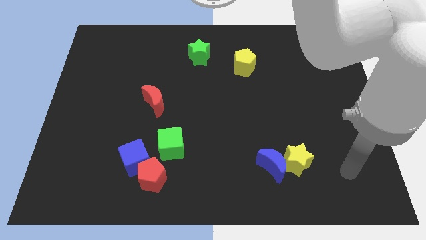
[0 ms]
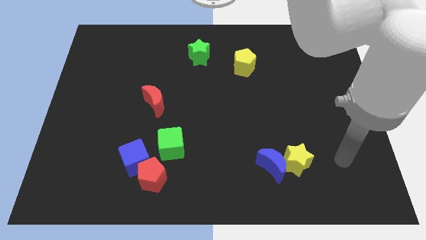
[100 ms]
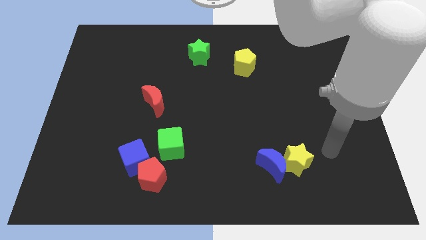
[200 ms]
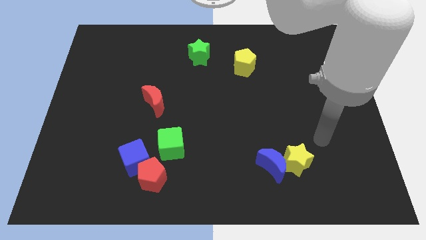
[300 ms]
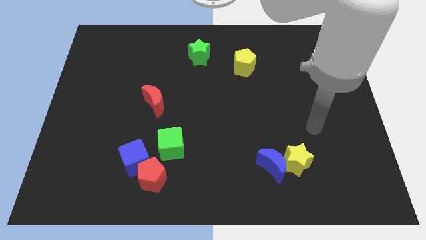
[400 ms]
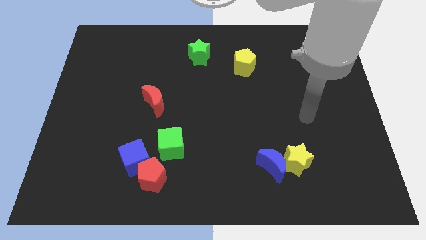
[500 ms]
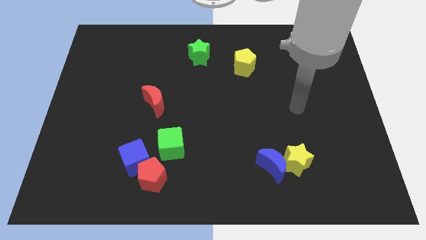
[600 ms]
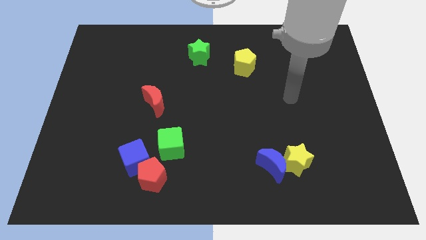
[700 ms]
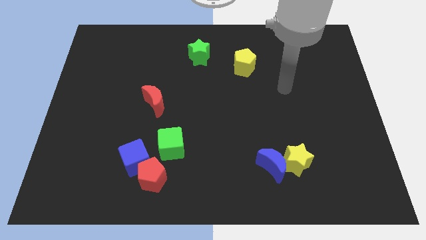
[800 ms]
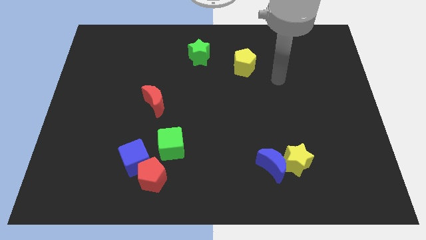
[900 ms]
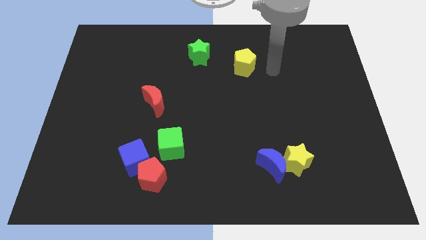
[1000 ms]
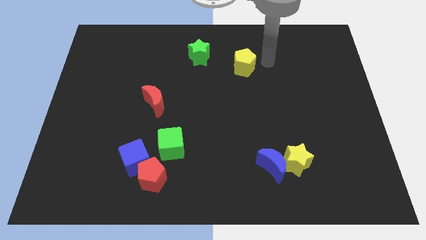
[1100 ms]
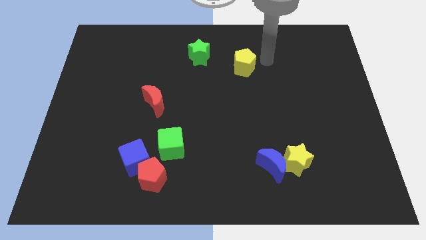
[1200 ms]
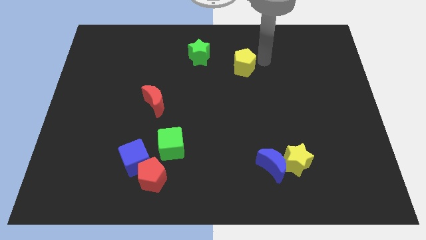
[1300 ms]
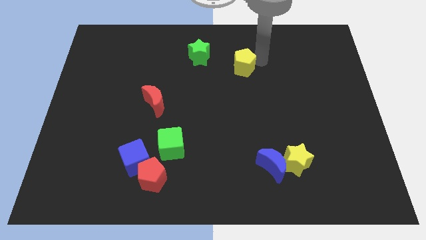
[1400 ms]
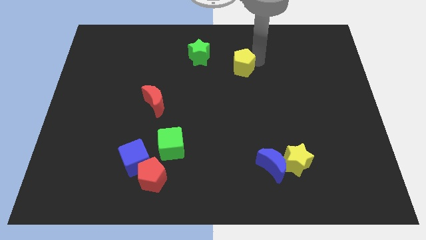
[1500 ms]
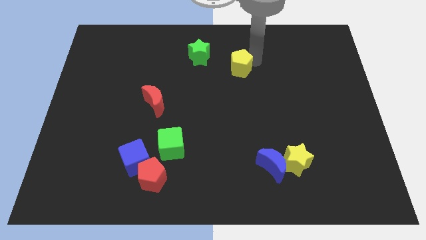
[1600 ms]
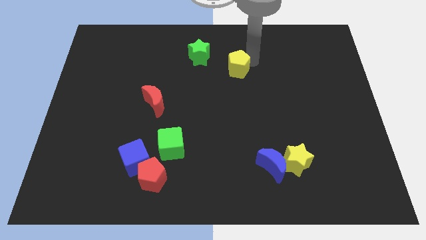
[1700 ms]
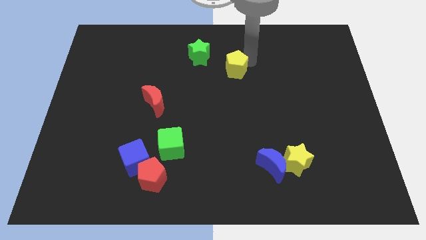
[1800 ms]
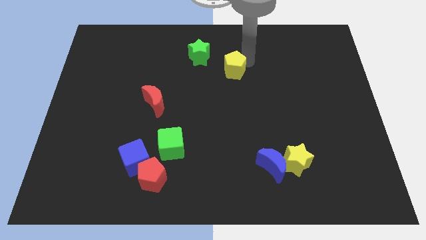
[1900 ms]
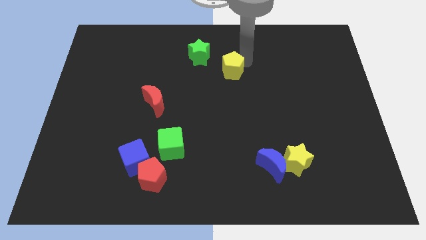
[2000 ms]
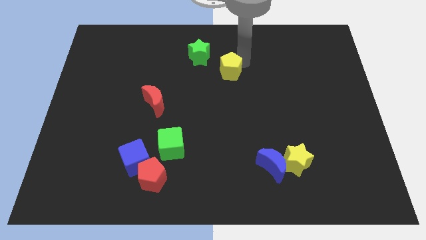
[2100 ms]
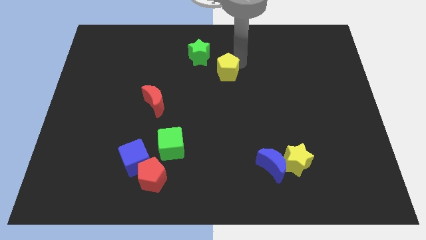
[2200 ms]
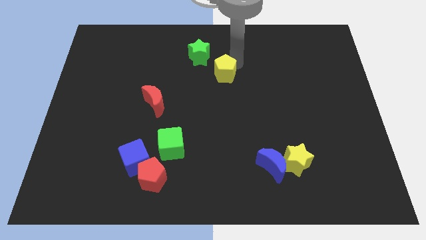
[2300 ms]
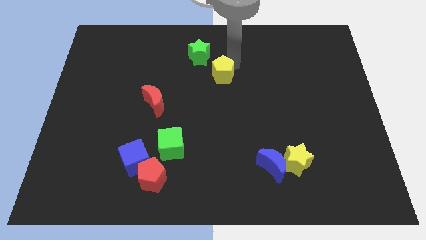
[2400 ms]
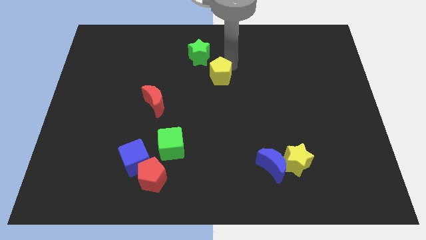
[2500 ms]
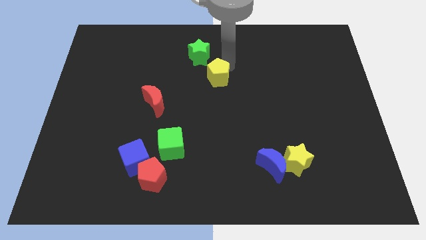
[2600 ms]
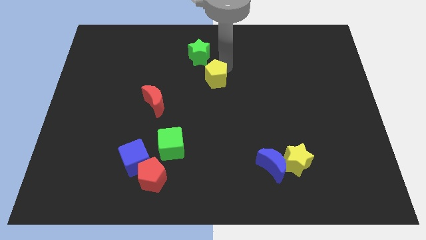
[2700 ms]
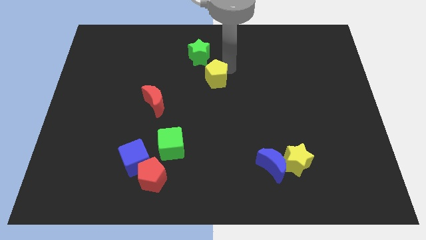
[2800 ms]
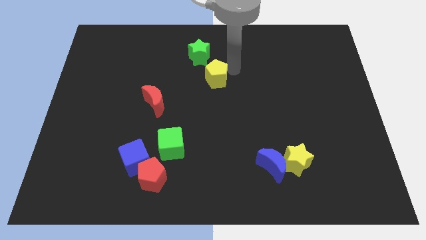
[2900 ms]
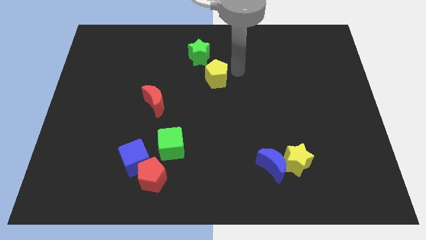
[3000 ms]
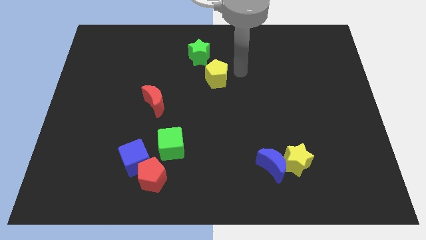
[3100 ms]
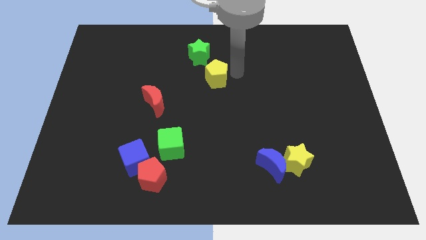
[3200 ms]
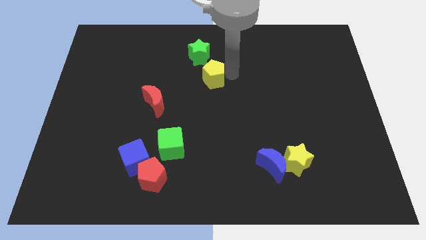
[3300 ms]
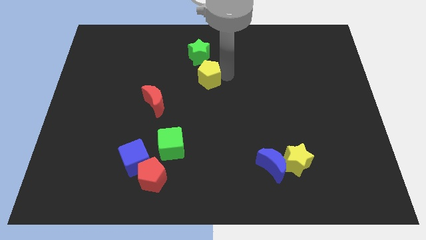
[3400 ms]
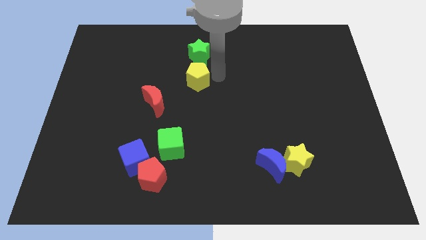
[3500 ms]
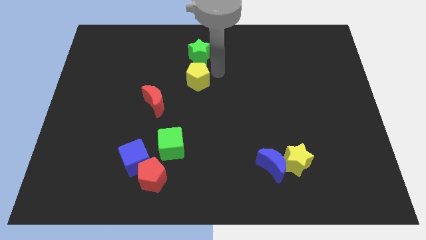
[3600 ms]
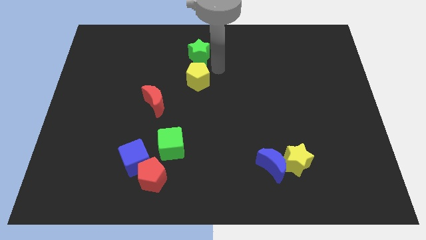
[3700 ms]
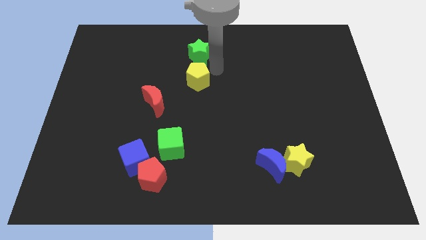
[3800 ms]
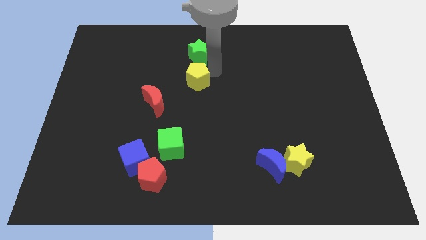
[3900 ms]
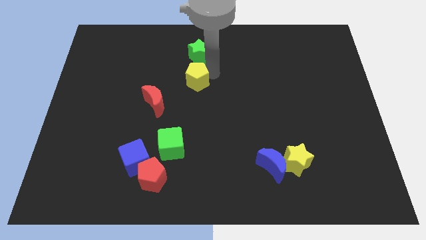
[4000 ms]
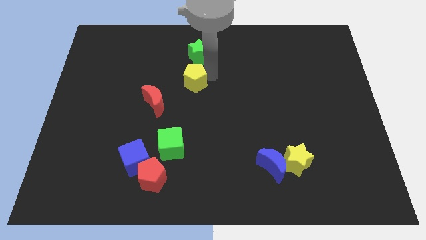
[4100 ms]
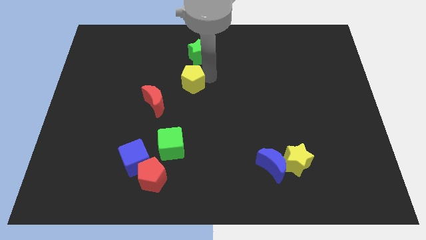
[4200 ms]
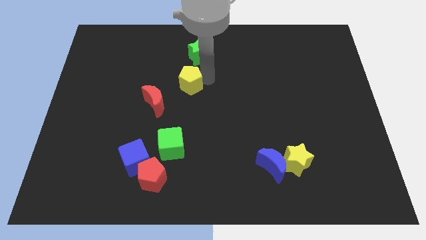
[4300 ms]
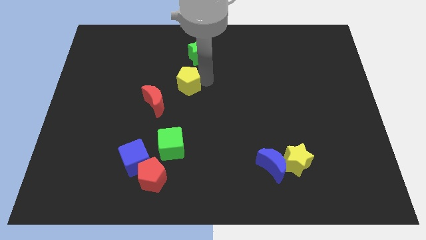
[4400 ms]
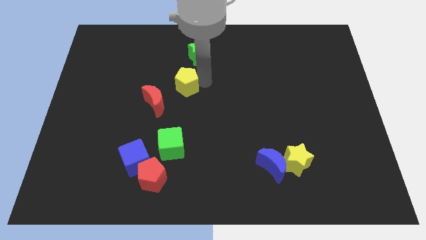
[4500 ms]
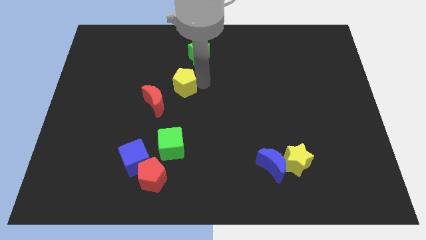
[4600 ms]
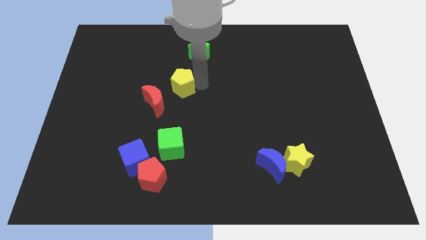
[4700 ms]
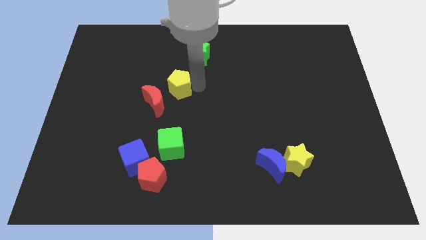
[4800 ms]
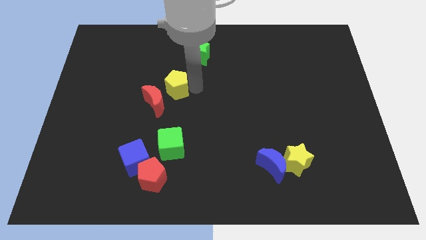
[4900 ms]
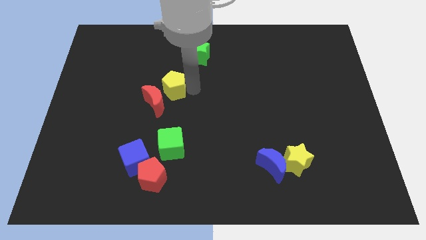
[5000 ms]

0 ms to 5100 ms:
put the yellow pentagon to the red moon

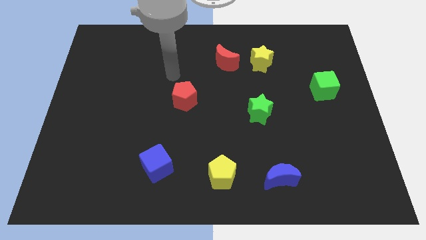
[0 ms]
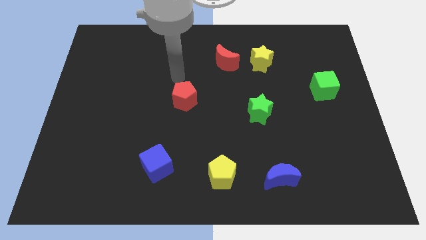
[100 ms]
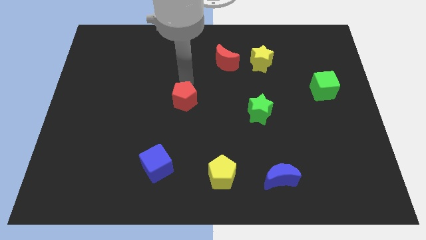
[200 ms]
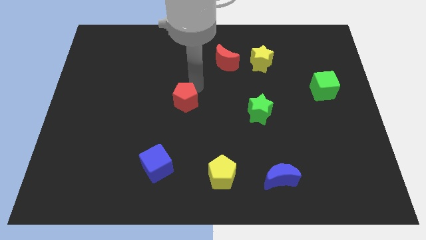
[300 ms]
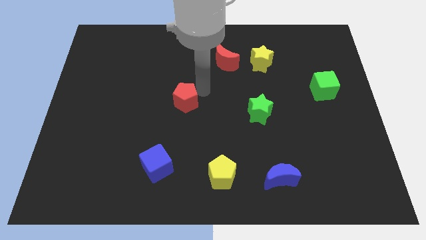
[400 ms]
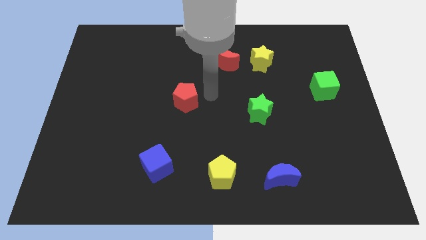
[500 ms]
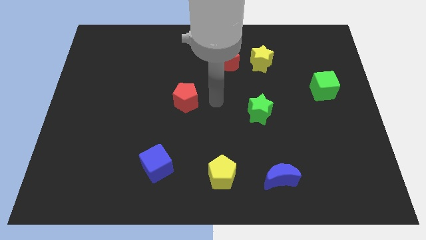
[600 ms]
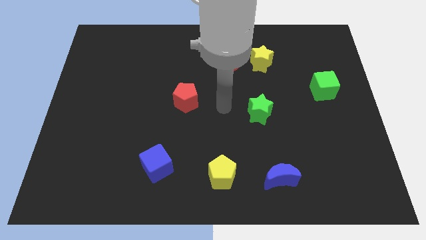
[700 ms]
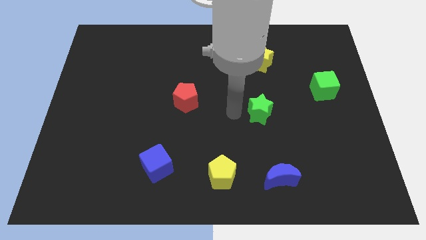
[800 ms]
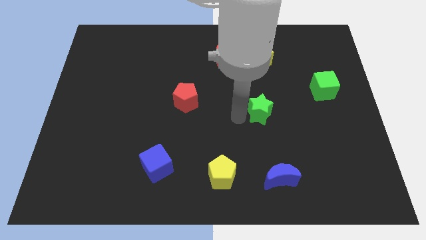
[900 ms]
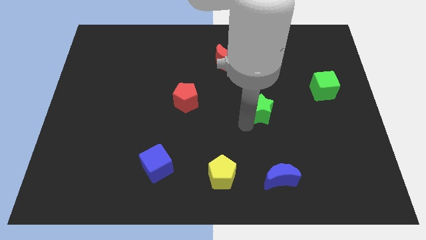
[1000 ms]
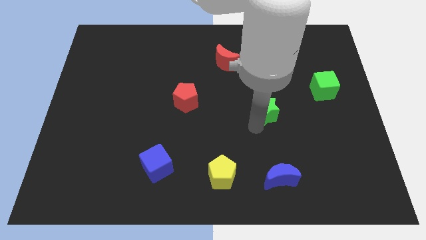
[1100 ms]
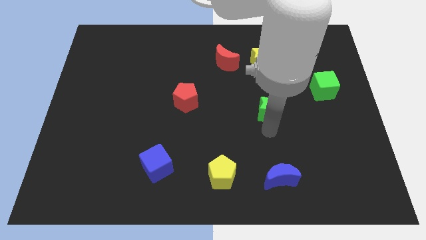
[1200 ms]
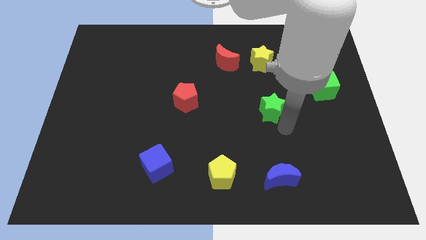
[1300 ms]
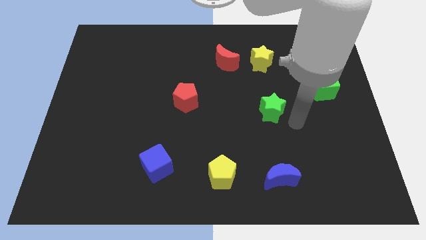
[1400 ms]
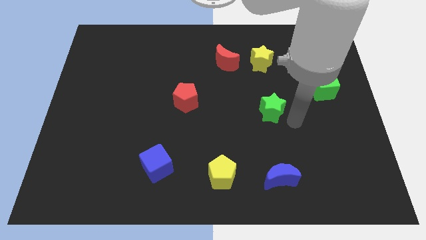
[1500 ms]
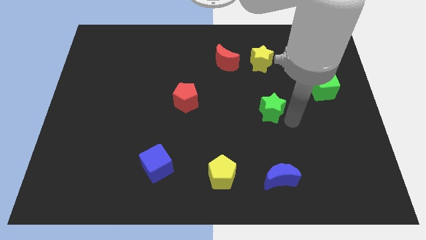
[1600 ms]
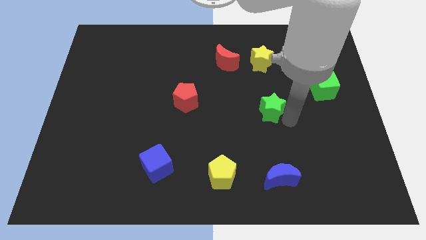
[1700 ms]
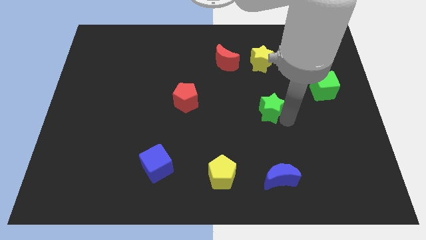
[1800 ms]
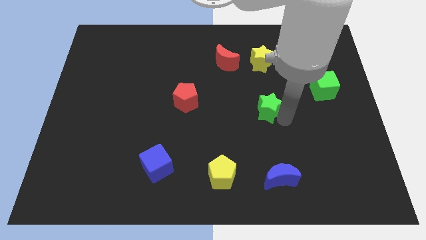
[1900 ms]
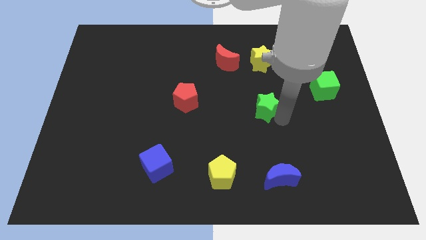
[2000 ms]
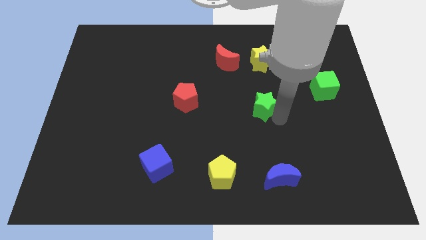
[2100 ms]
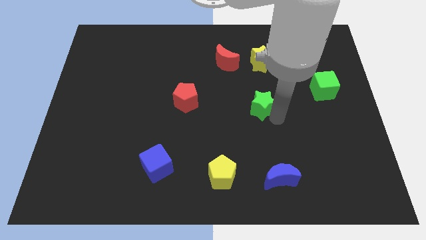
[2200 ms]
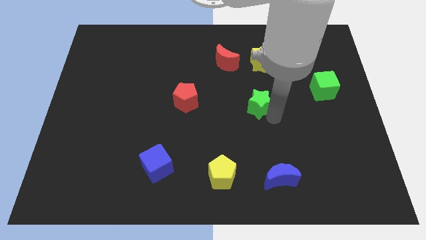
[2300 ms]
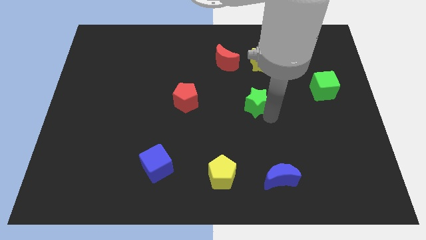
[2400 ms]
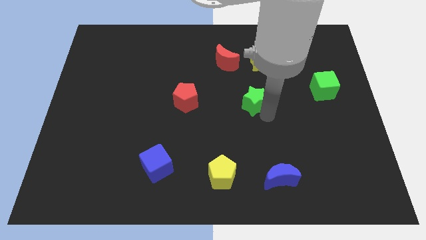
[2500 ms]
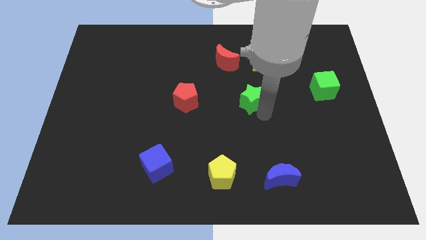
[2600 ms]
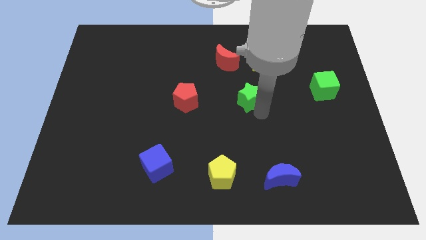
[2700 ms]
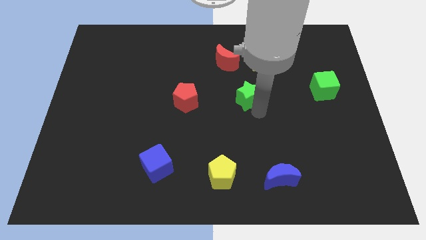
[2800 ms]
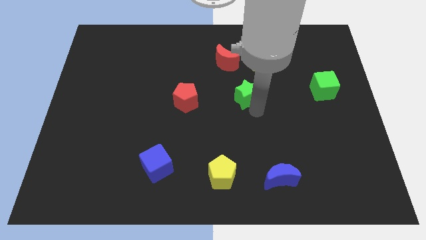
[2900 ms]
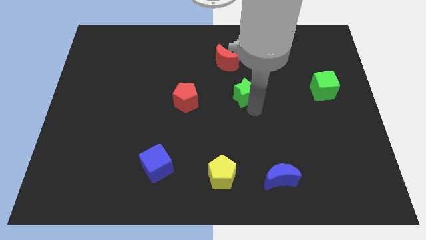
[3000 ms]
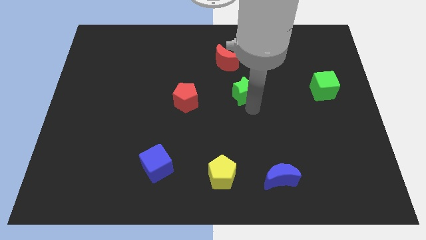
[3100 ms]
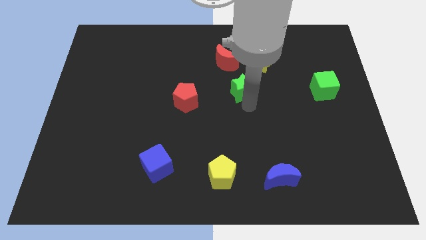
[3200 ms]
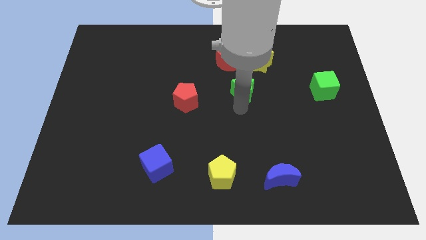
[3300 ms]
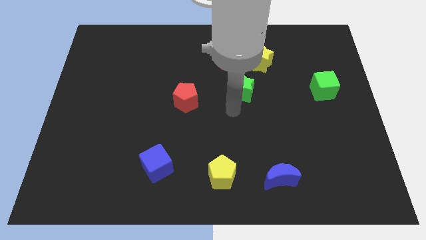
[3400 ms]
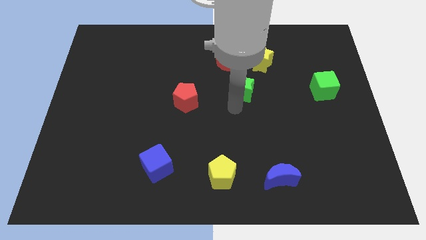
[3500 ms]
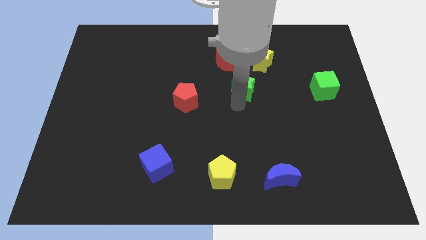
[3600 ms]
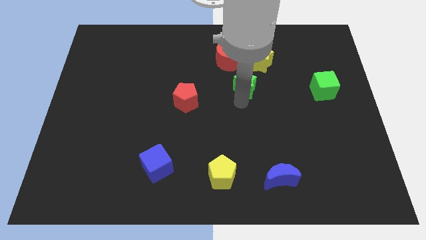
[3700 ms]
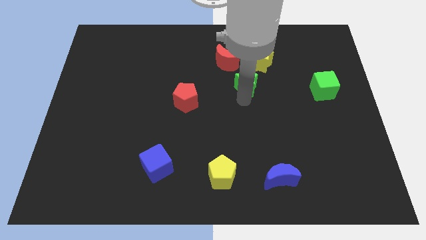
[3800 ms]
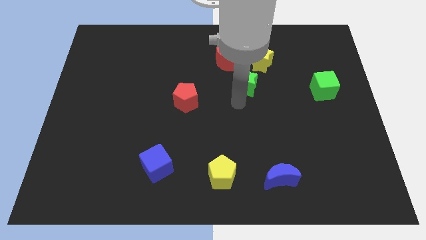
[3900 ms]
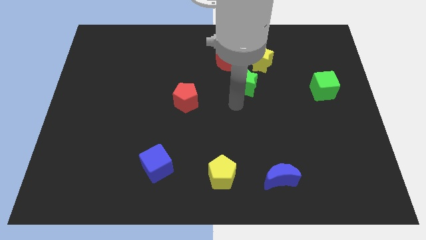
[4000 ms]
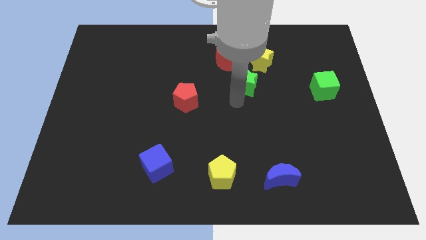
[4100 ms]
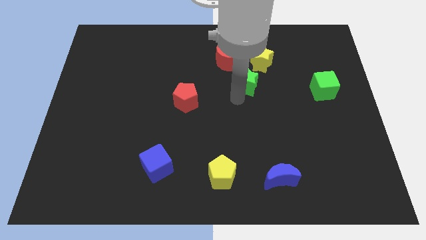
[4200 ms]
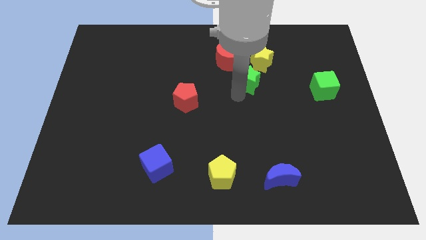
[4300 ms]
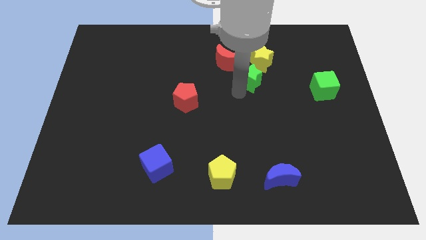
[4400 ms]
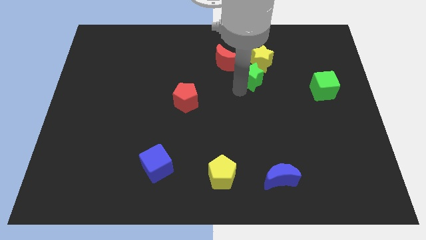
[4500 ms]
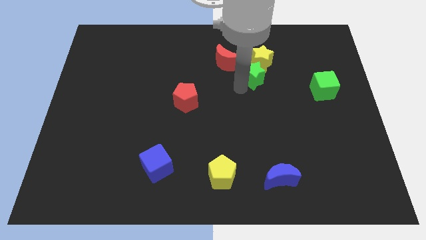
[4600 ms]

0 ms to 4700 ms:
slide the green star next to the yellow star
